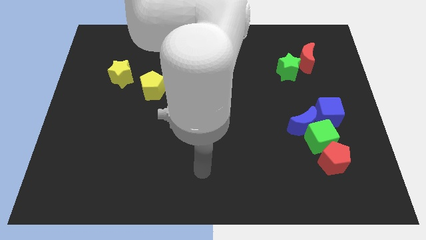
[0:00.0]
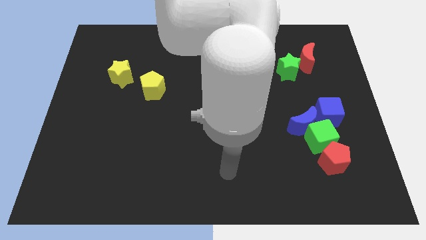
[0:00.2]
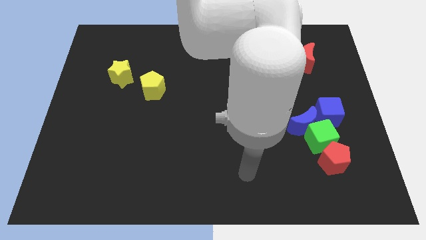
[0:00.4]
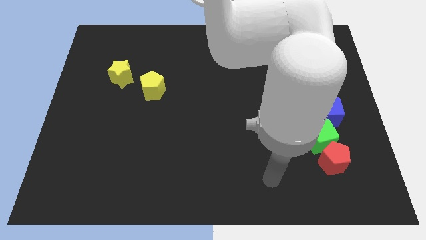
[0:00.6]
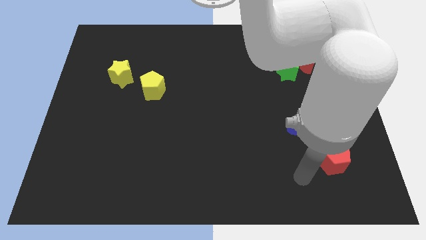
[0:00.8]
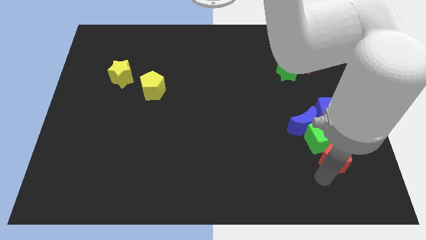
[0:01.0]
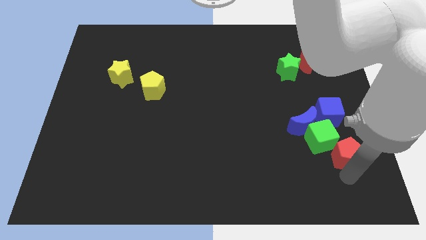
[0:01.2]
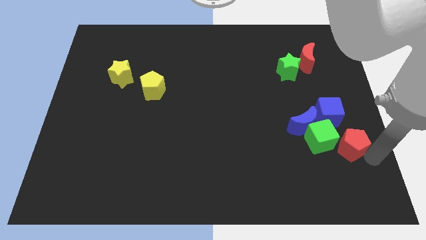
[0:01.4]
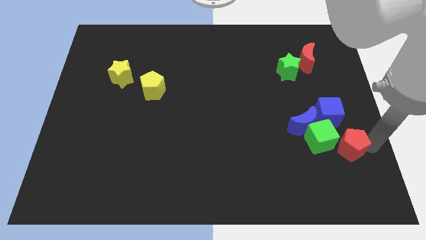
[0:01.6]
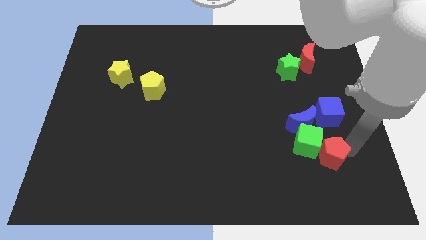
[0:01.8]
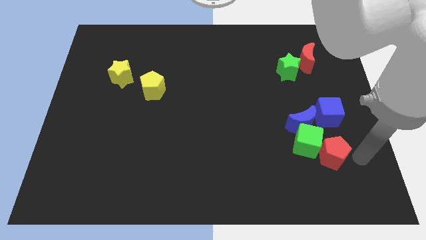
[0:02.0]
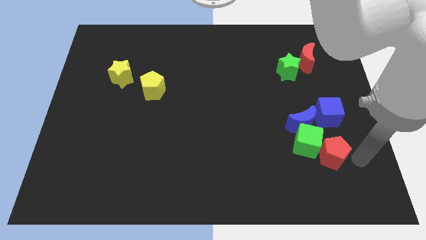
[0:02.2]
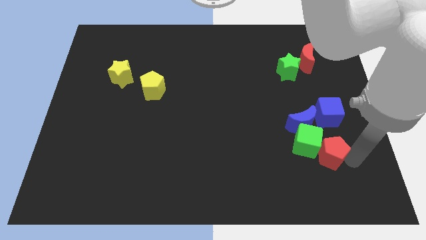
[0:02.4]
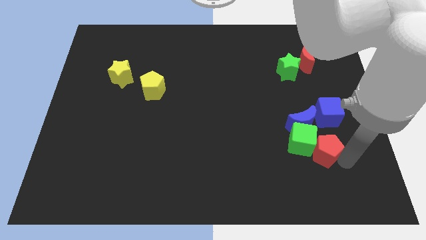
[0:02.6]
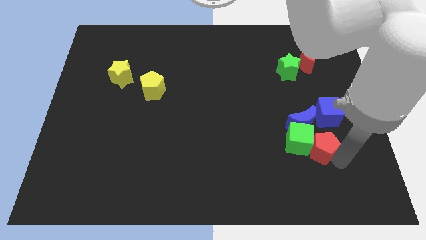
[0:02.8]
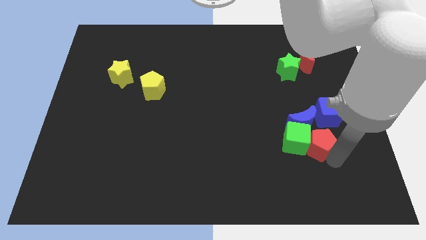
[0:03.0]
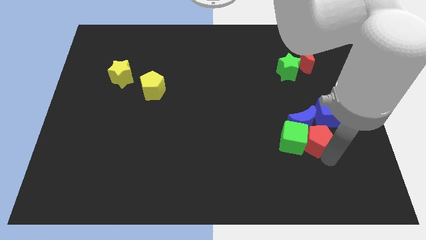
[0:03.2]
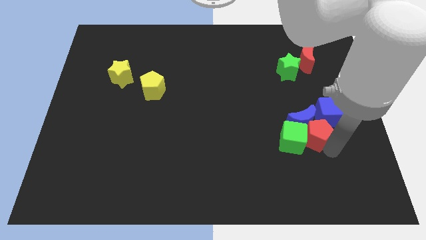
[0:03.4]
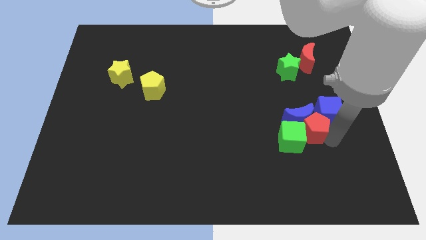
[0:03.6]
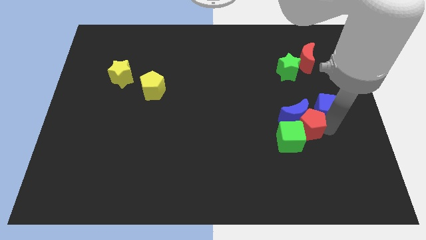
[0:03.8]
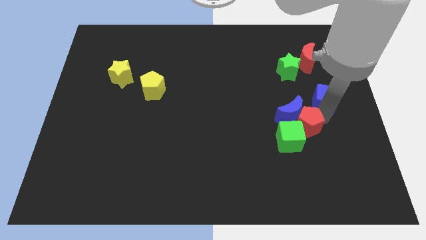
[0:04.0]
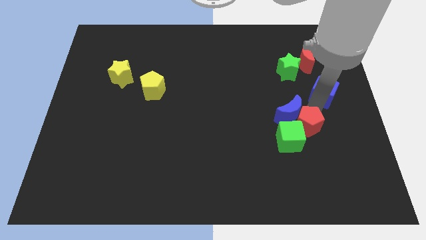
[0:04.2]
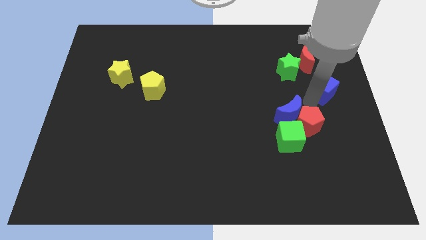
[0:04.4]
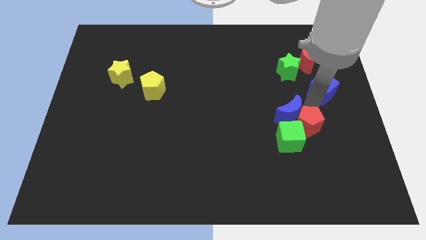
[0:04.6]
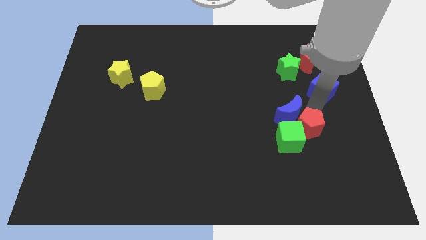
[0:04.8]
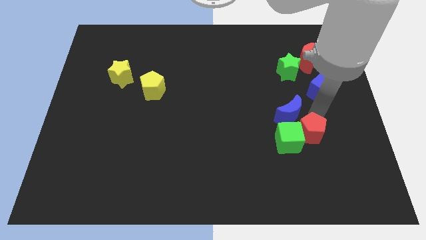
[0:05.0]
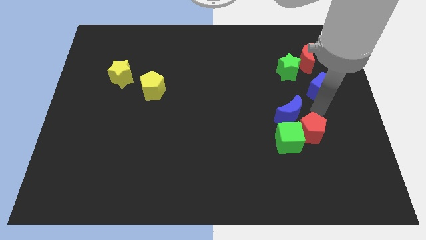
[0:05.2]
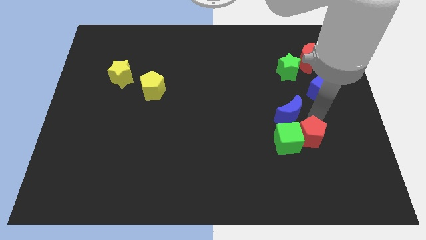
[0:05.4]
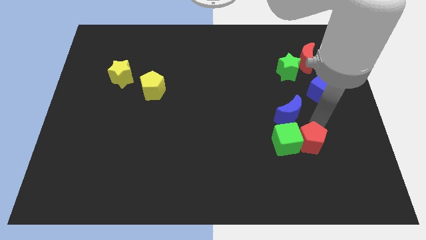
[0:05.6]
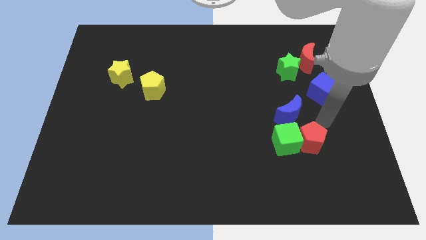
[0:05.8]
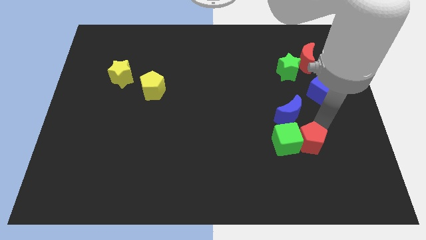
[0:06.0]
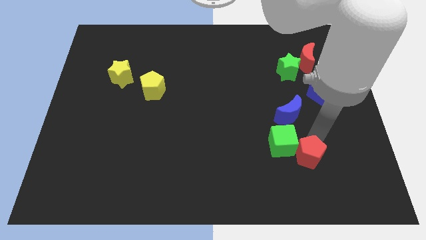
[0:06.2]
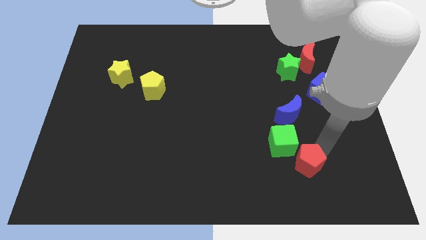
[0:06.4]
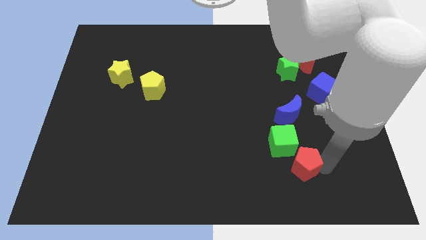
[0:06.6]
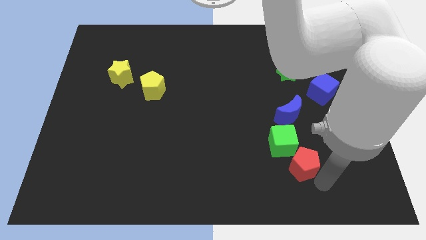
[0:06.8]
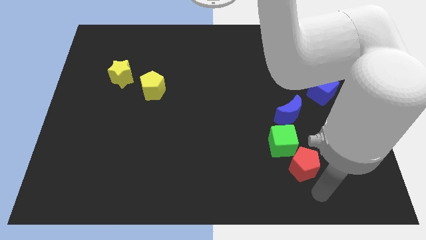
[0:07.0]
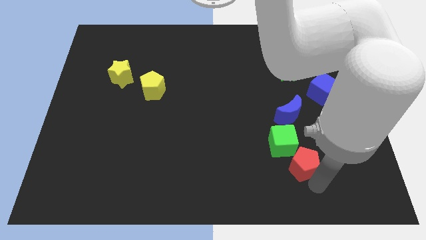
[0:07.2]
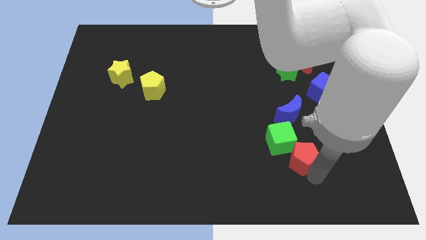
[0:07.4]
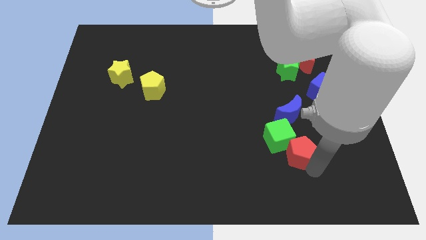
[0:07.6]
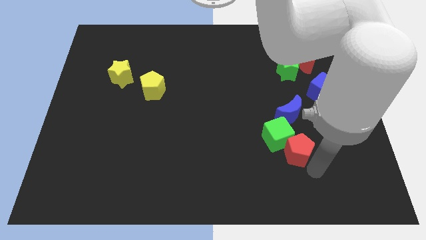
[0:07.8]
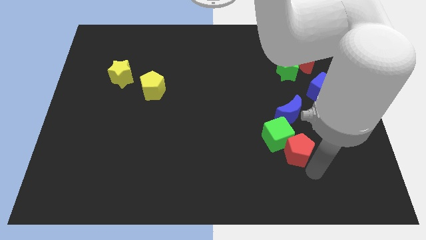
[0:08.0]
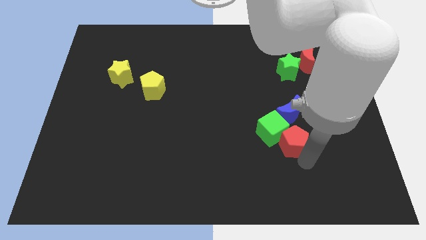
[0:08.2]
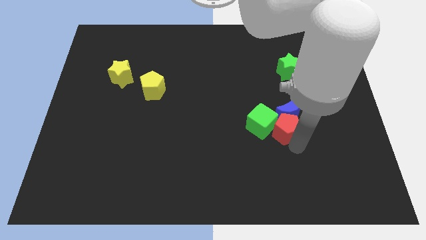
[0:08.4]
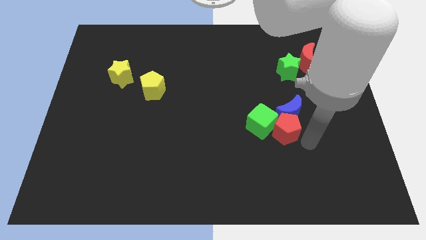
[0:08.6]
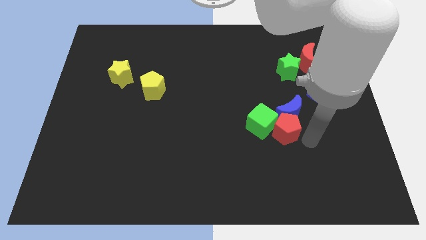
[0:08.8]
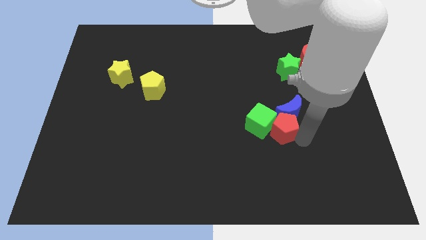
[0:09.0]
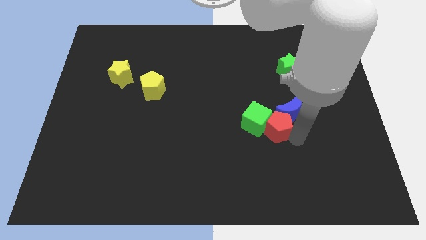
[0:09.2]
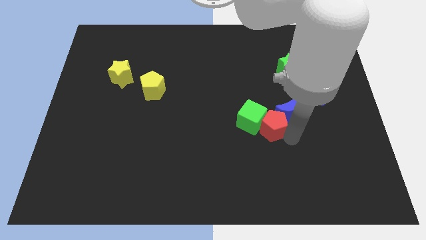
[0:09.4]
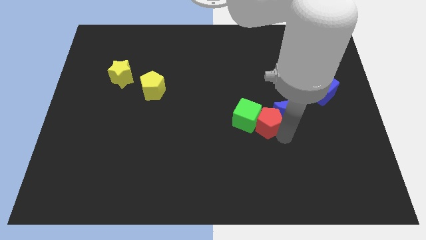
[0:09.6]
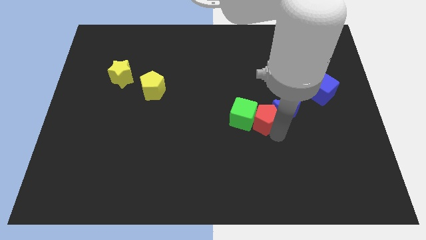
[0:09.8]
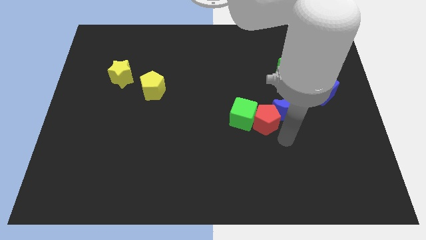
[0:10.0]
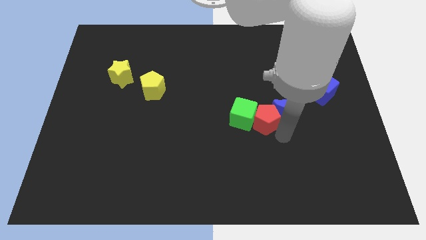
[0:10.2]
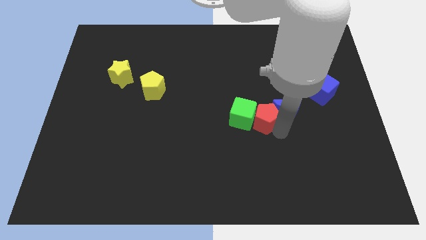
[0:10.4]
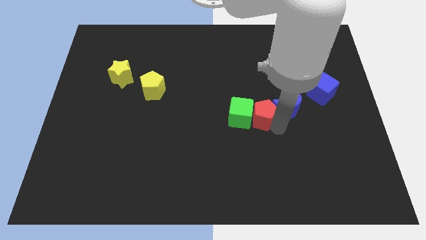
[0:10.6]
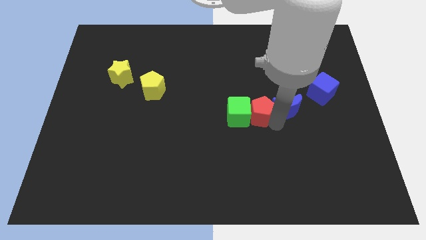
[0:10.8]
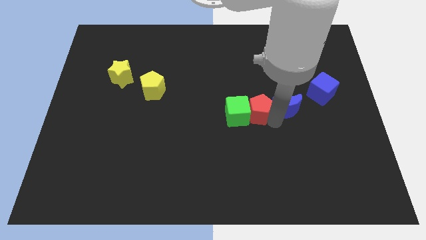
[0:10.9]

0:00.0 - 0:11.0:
push the red pentagon upwards and left

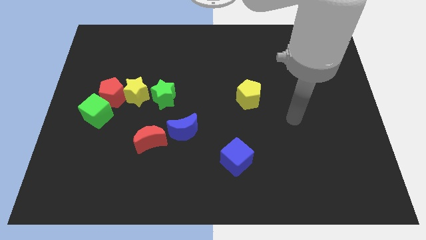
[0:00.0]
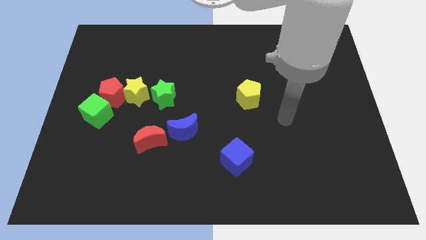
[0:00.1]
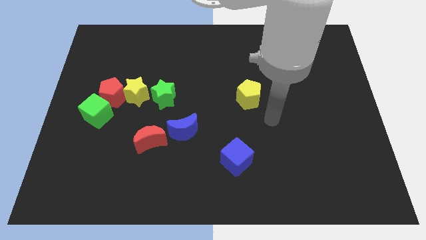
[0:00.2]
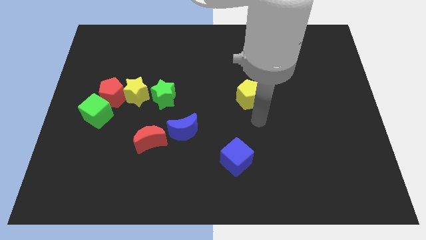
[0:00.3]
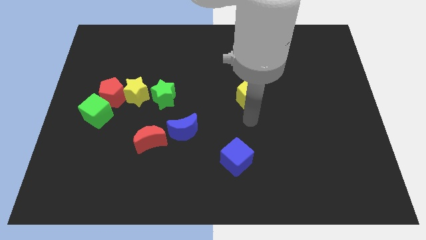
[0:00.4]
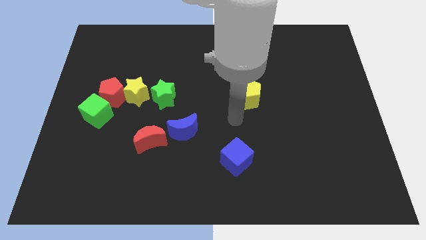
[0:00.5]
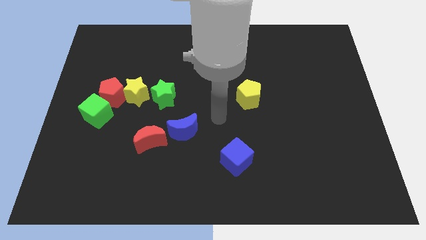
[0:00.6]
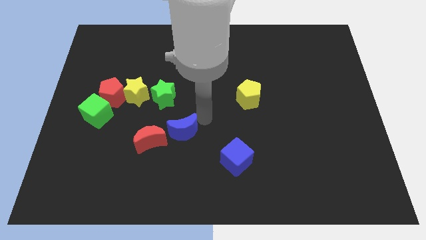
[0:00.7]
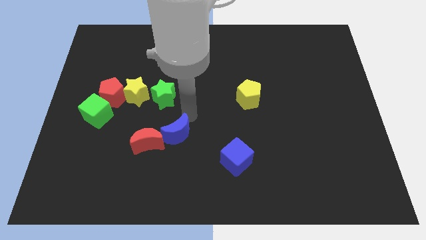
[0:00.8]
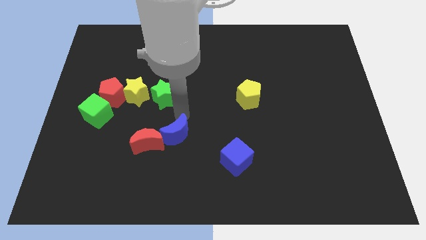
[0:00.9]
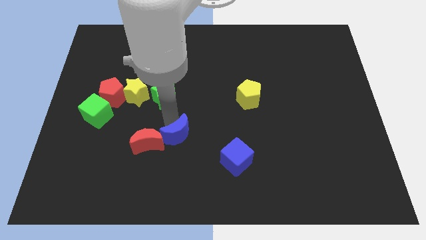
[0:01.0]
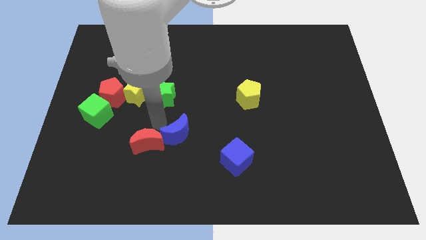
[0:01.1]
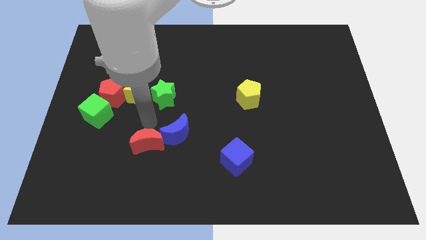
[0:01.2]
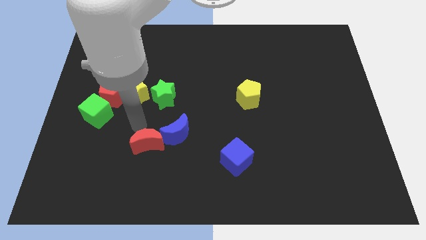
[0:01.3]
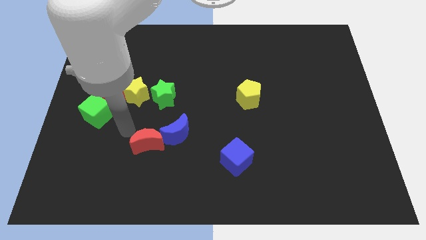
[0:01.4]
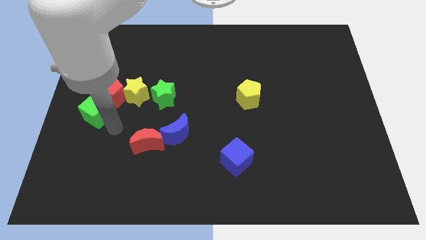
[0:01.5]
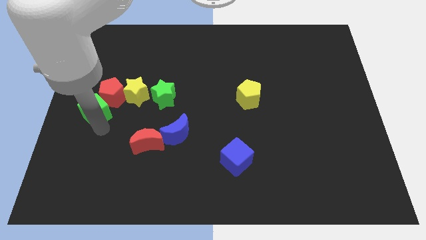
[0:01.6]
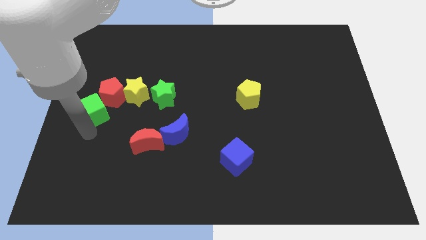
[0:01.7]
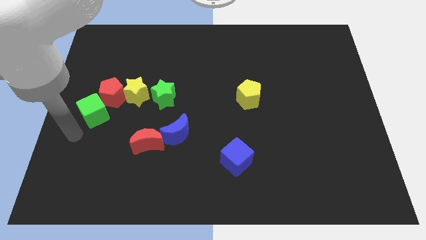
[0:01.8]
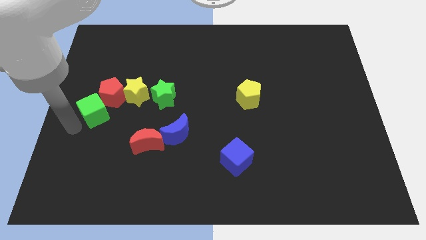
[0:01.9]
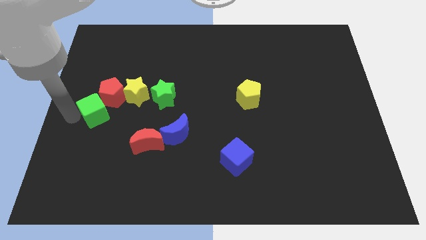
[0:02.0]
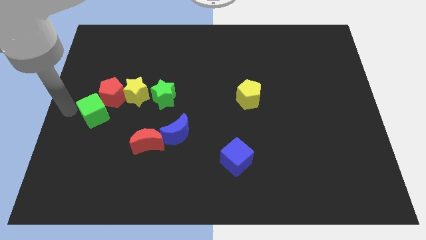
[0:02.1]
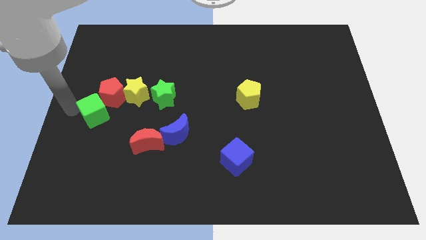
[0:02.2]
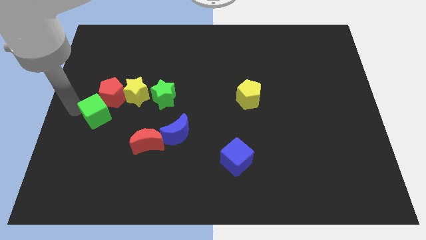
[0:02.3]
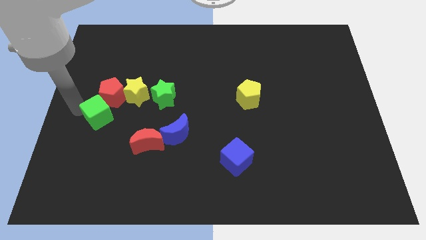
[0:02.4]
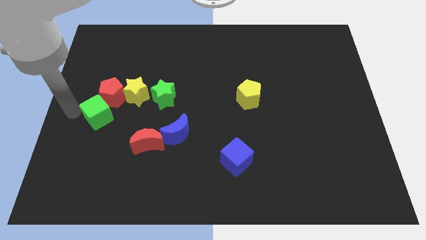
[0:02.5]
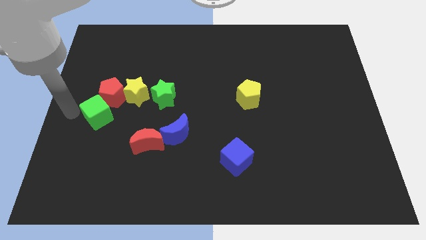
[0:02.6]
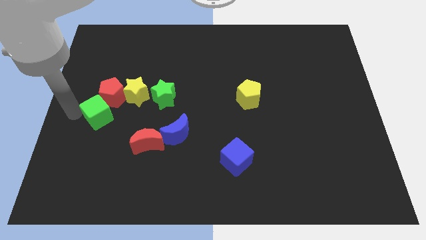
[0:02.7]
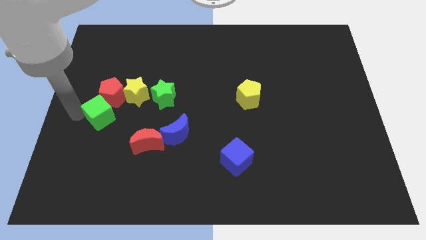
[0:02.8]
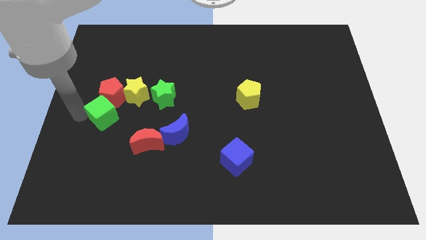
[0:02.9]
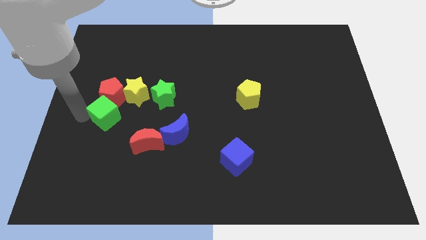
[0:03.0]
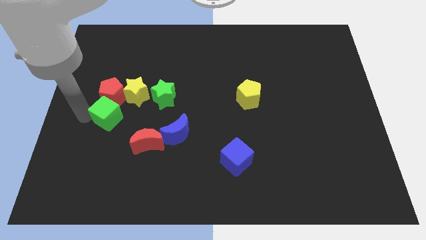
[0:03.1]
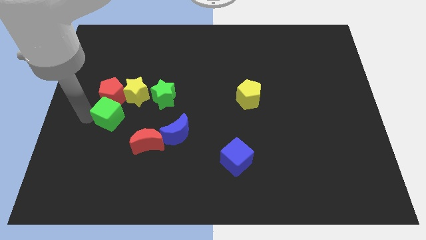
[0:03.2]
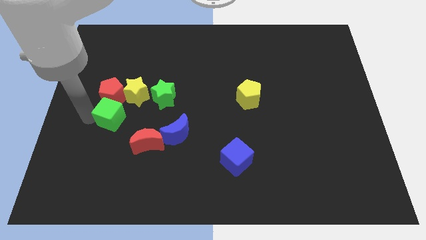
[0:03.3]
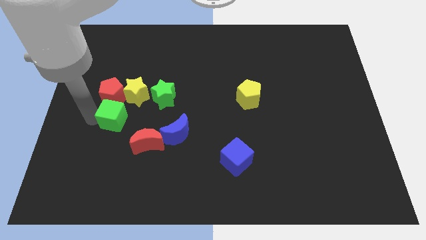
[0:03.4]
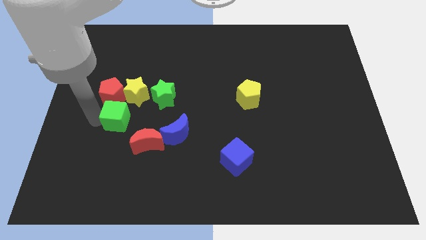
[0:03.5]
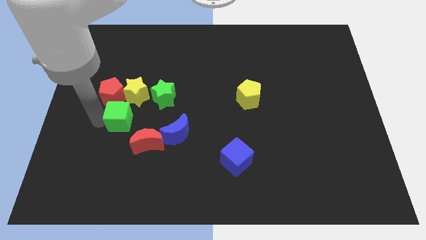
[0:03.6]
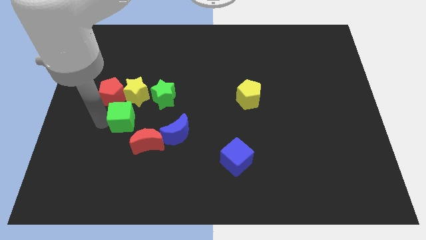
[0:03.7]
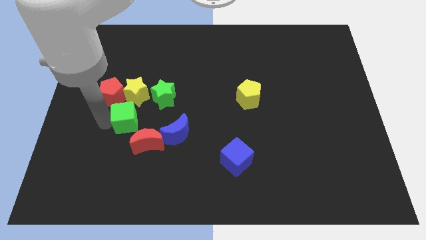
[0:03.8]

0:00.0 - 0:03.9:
slide the green cube somewhat right
